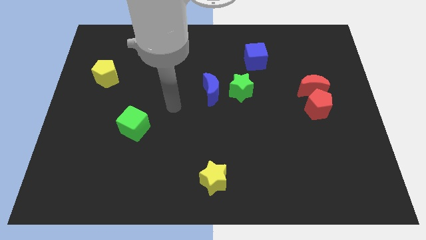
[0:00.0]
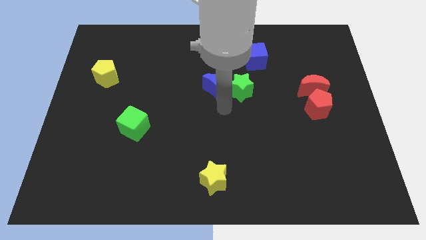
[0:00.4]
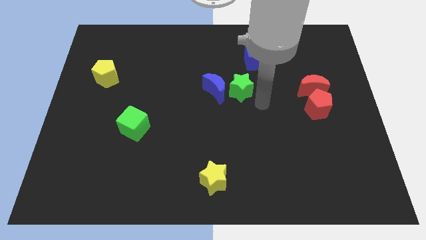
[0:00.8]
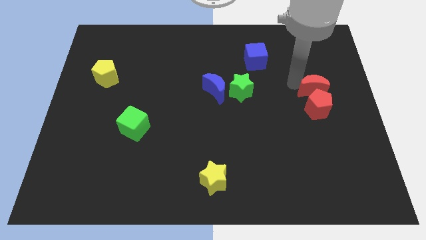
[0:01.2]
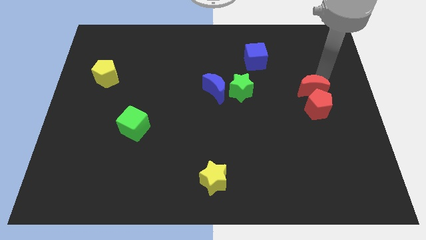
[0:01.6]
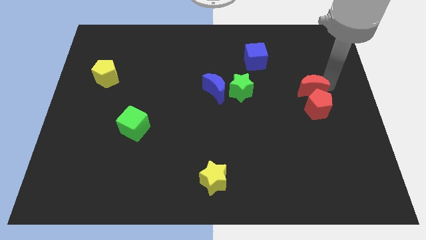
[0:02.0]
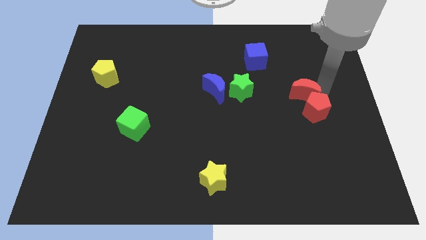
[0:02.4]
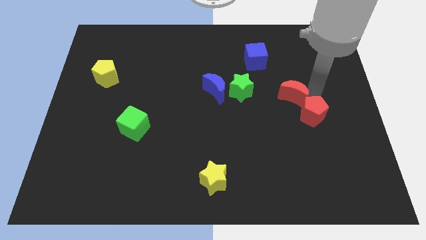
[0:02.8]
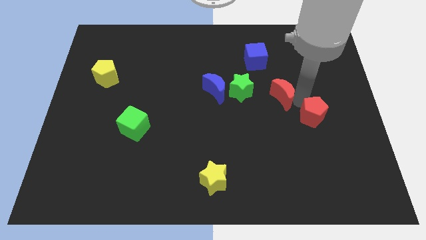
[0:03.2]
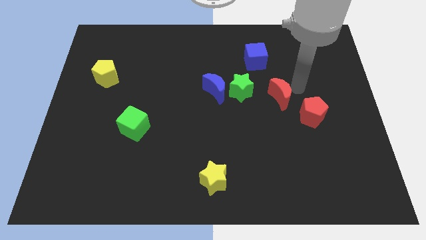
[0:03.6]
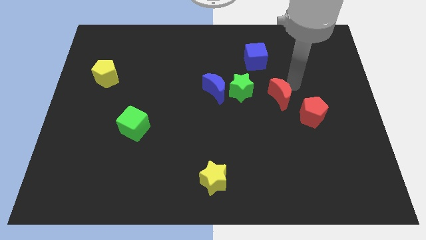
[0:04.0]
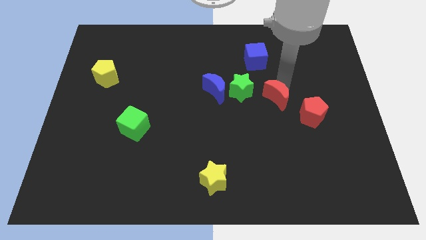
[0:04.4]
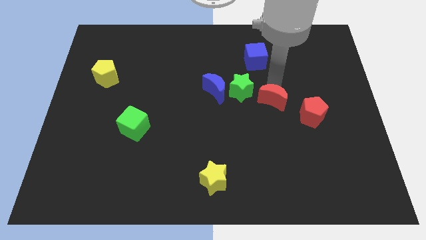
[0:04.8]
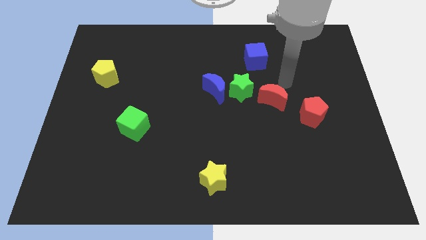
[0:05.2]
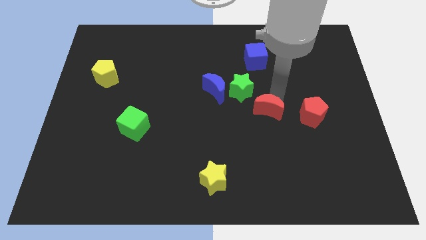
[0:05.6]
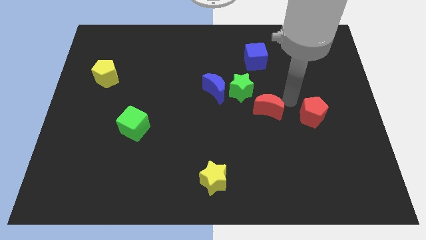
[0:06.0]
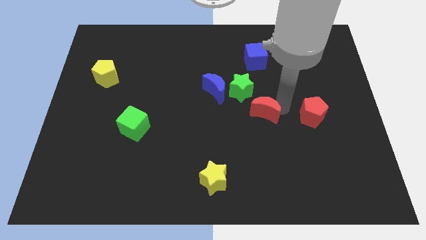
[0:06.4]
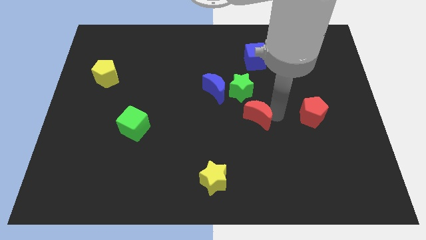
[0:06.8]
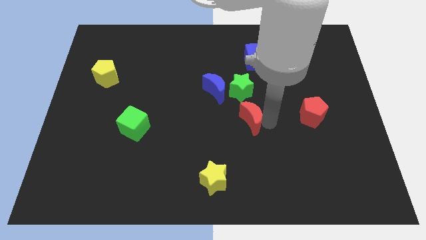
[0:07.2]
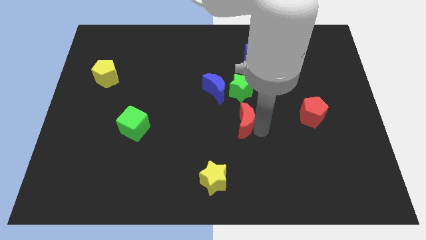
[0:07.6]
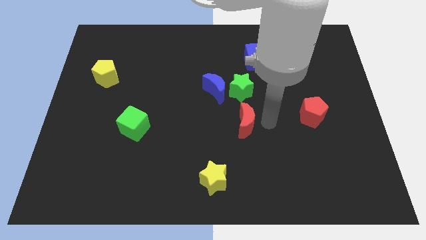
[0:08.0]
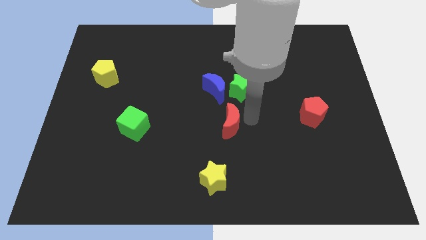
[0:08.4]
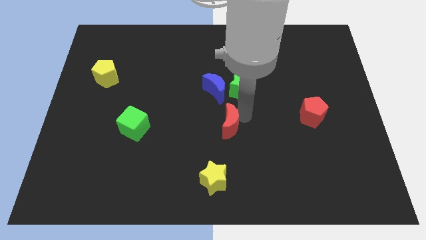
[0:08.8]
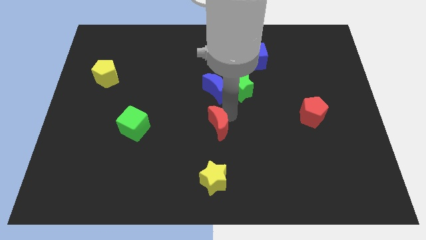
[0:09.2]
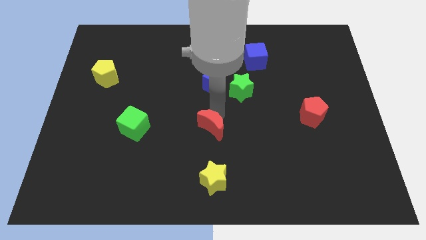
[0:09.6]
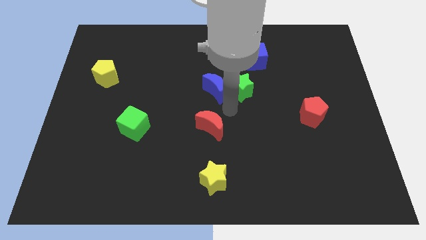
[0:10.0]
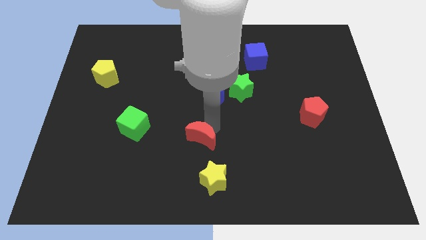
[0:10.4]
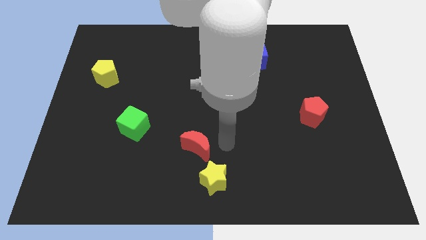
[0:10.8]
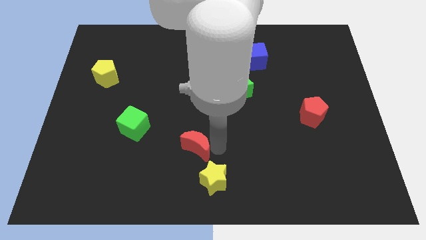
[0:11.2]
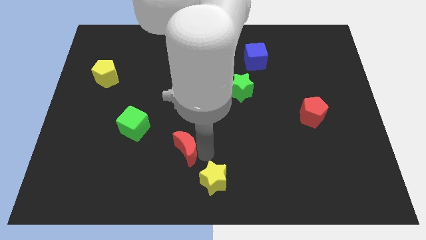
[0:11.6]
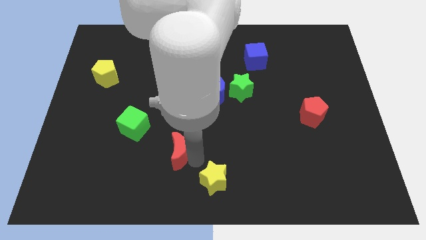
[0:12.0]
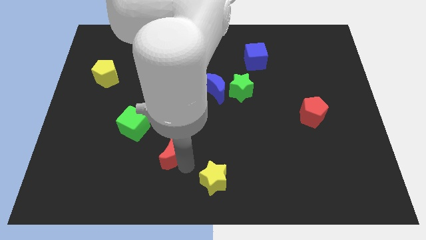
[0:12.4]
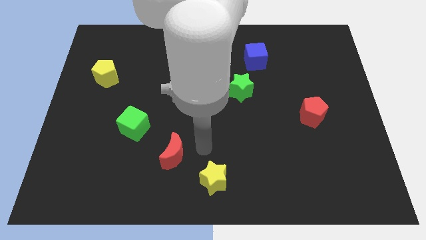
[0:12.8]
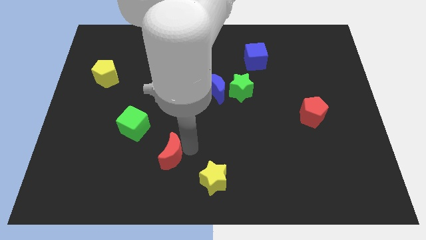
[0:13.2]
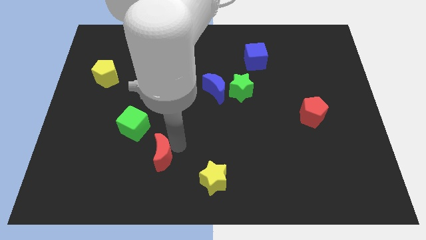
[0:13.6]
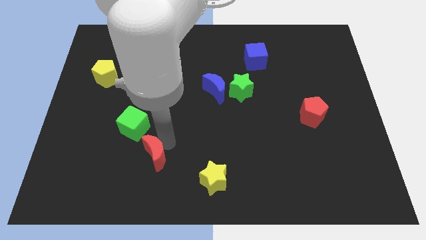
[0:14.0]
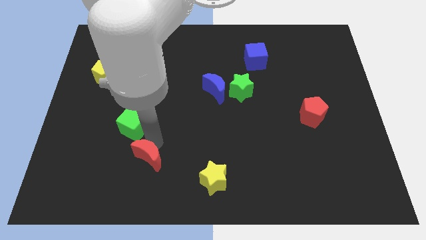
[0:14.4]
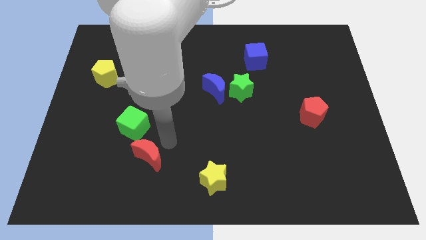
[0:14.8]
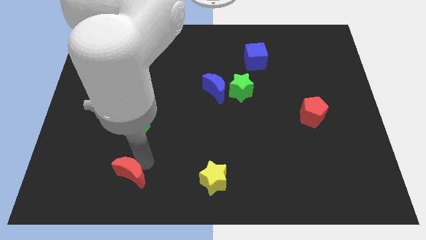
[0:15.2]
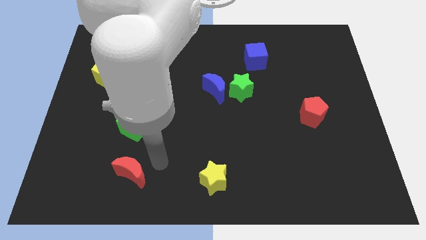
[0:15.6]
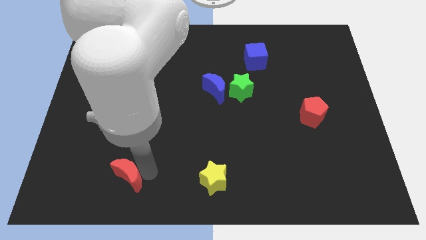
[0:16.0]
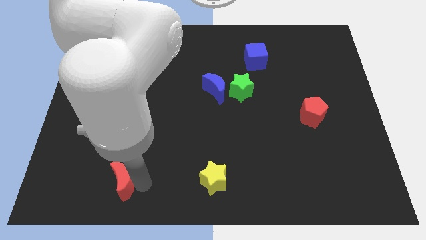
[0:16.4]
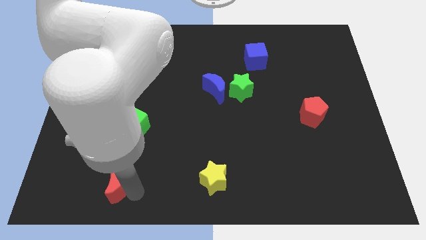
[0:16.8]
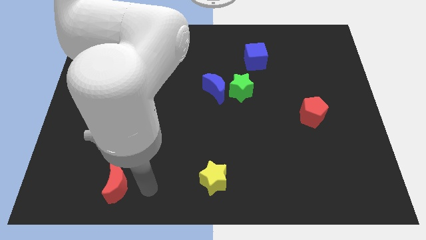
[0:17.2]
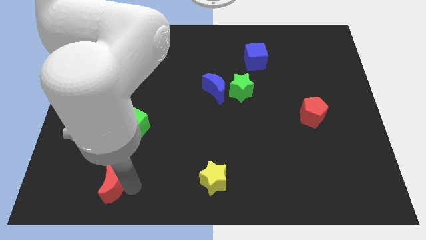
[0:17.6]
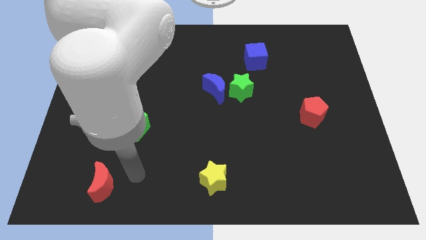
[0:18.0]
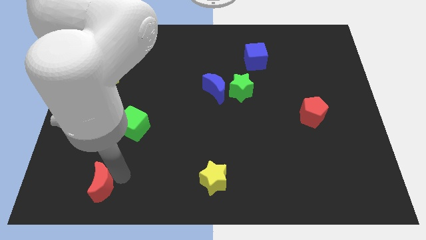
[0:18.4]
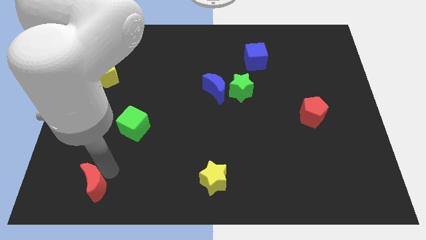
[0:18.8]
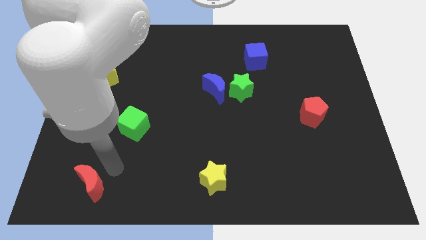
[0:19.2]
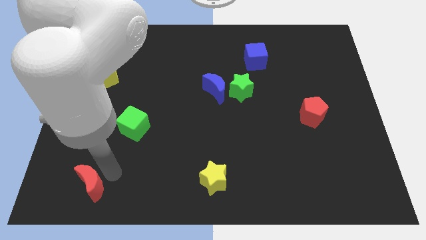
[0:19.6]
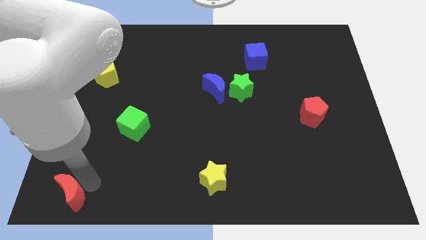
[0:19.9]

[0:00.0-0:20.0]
slide the red moon to the bottom left

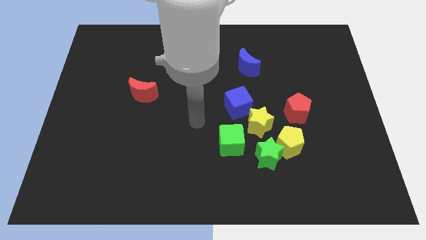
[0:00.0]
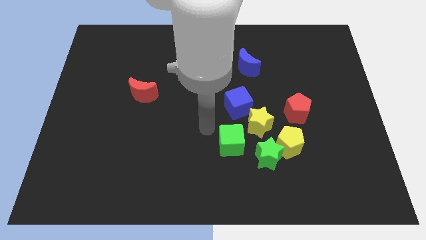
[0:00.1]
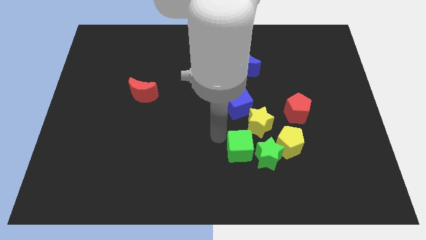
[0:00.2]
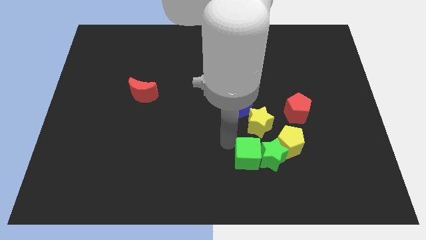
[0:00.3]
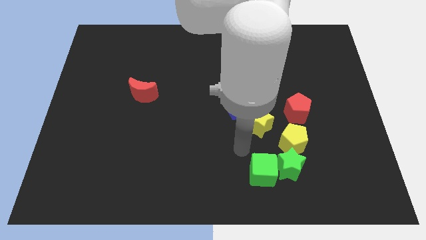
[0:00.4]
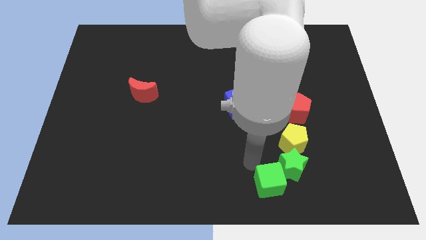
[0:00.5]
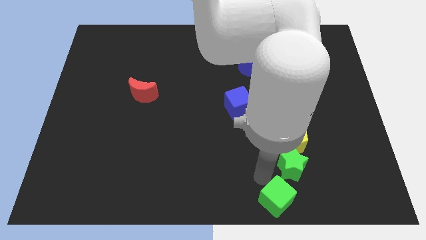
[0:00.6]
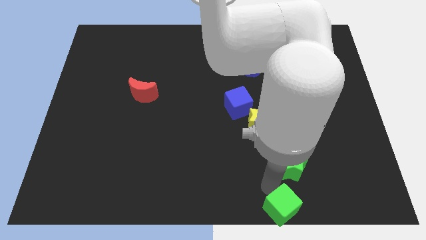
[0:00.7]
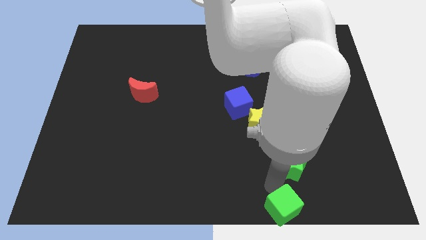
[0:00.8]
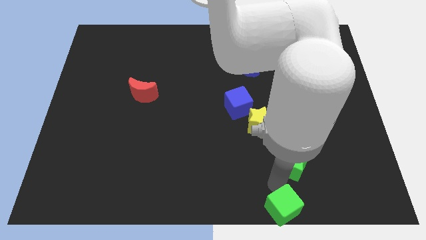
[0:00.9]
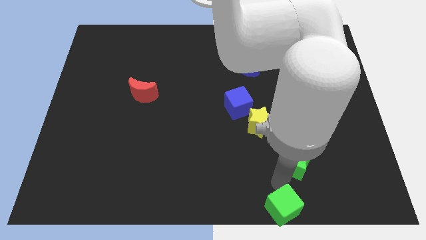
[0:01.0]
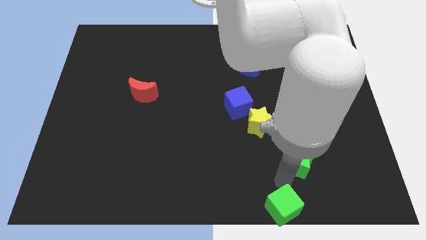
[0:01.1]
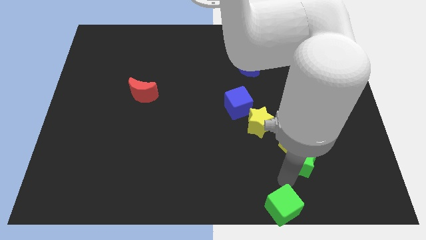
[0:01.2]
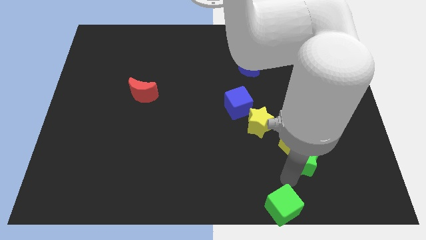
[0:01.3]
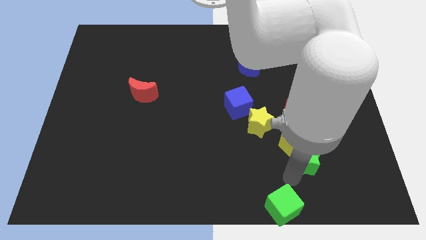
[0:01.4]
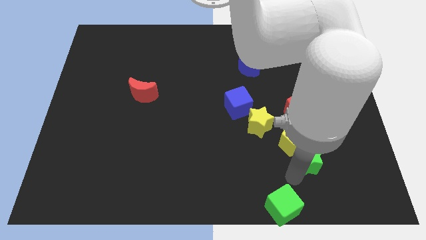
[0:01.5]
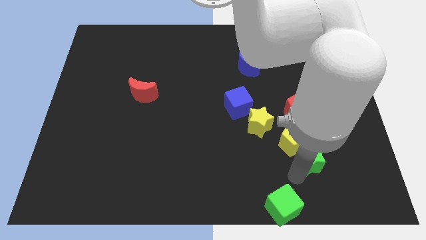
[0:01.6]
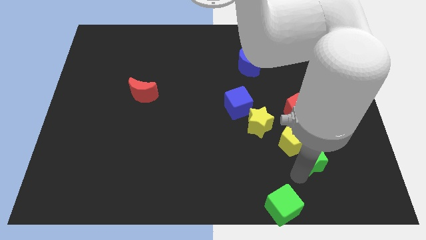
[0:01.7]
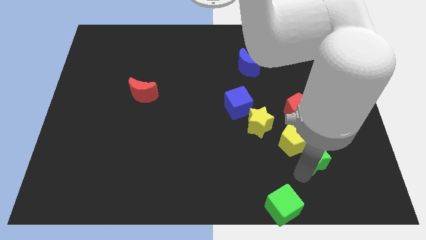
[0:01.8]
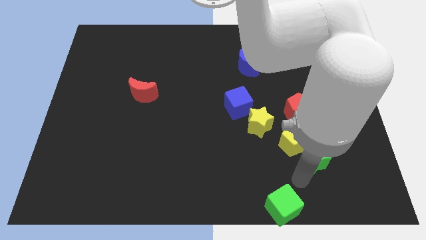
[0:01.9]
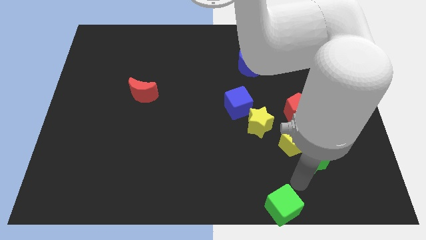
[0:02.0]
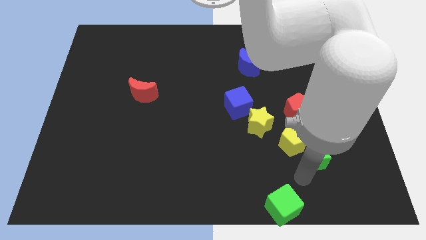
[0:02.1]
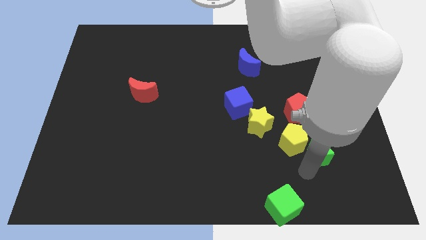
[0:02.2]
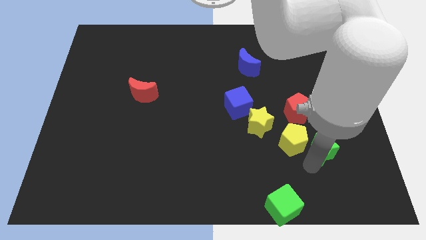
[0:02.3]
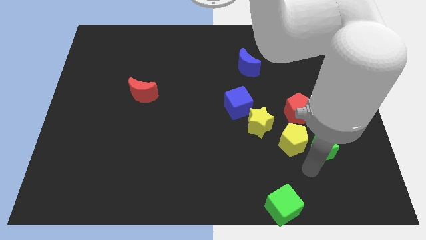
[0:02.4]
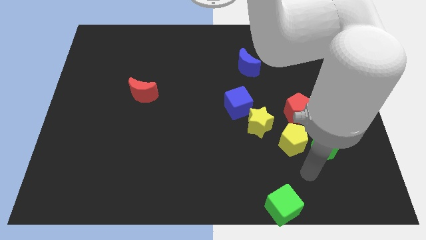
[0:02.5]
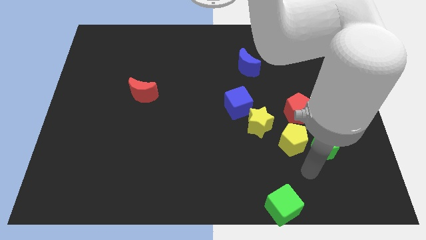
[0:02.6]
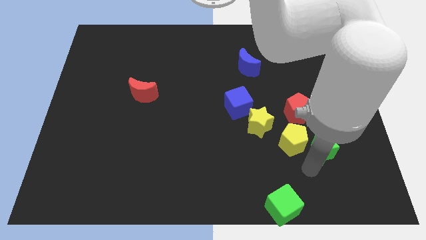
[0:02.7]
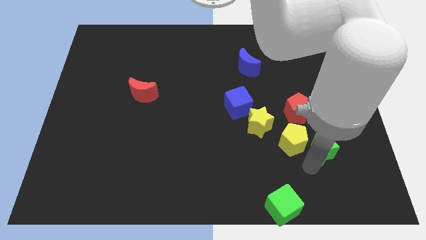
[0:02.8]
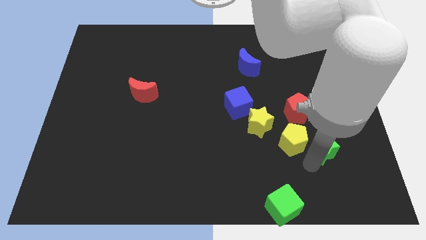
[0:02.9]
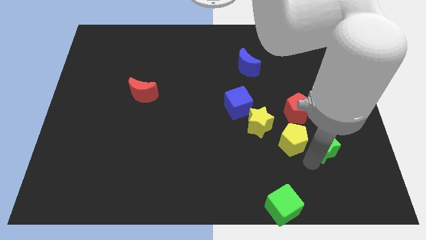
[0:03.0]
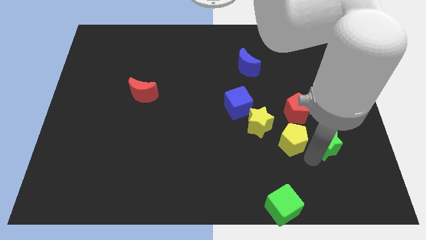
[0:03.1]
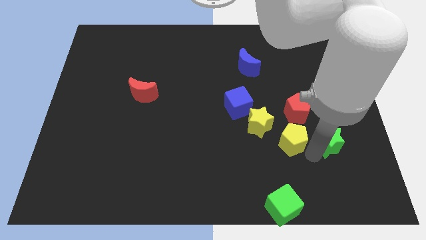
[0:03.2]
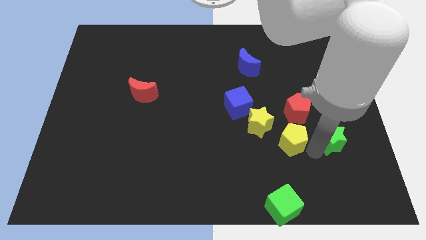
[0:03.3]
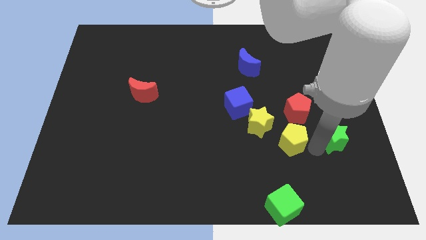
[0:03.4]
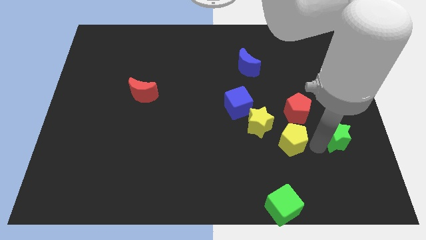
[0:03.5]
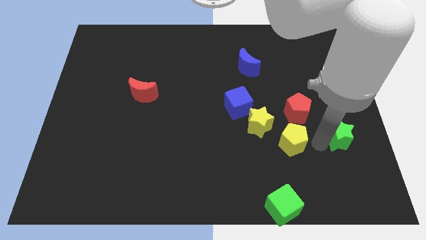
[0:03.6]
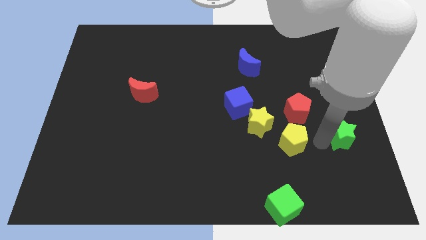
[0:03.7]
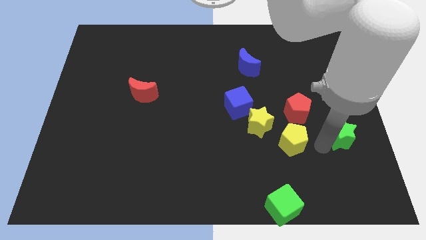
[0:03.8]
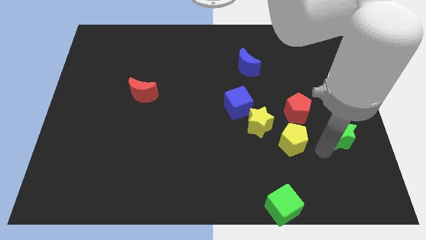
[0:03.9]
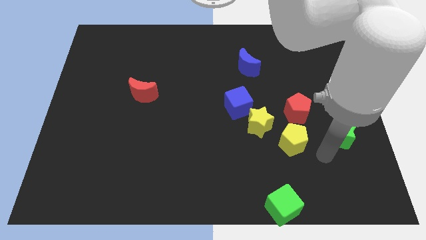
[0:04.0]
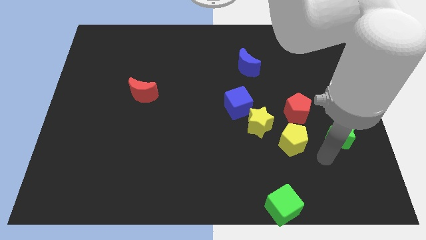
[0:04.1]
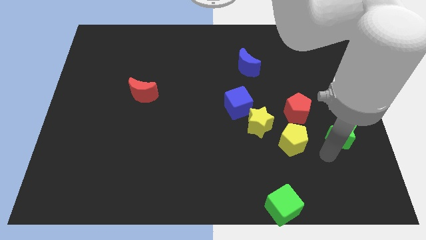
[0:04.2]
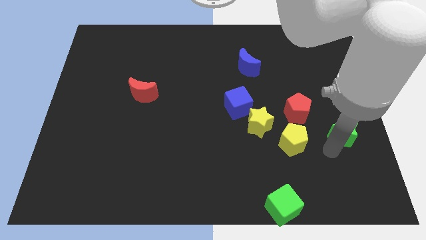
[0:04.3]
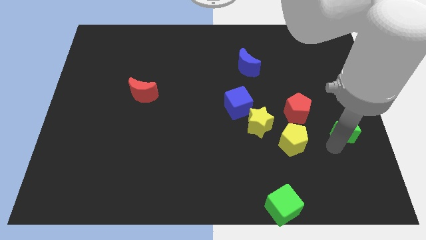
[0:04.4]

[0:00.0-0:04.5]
push the green star to the center right
